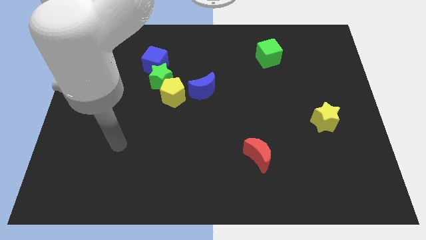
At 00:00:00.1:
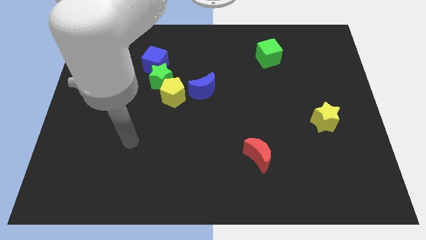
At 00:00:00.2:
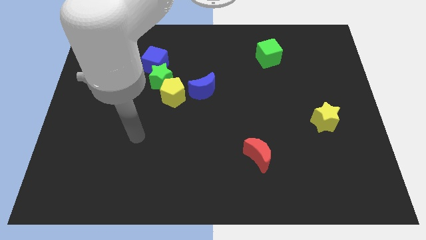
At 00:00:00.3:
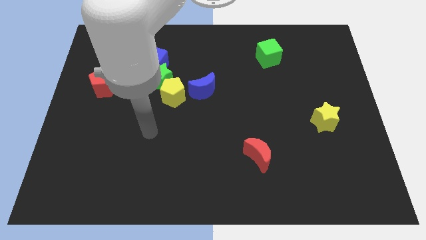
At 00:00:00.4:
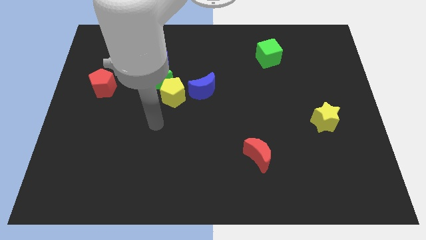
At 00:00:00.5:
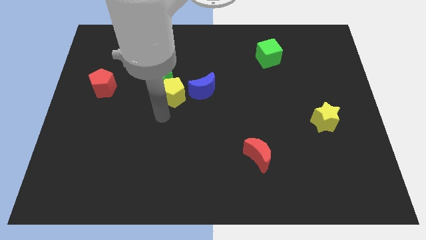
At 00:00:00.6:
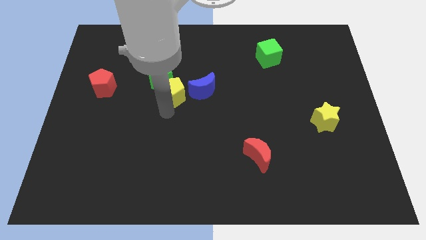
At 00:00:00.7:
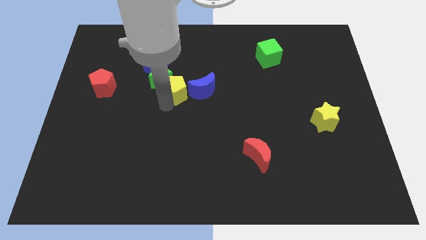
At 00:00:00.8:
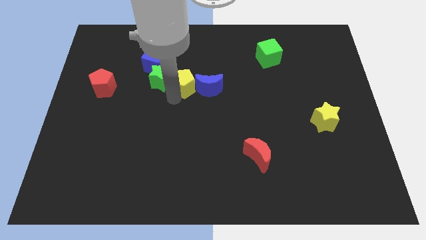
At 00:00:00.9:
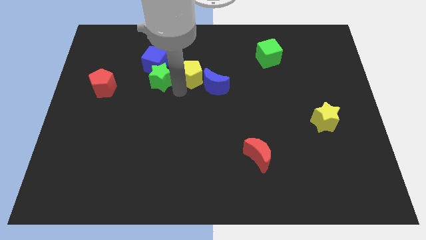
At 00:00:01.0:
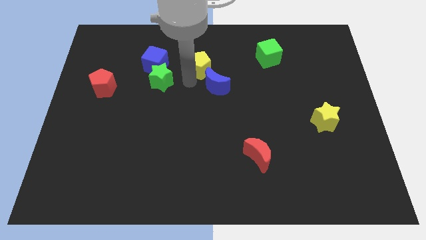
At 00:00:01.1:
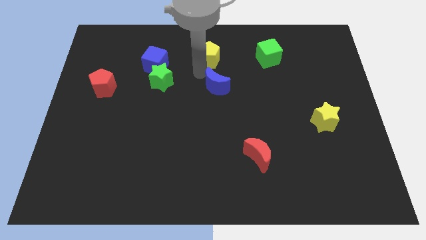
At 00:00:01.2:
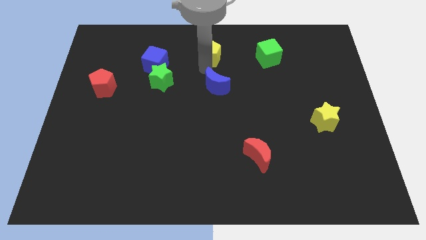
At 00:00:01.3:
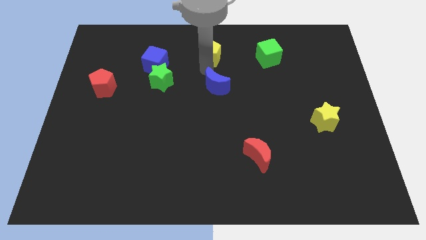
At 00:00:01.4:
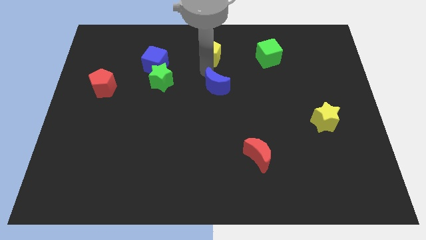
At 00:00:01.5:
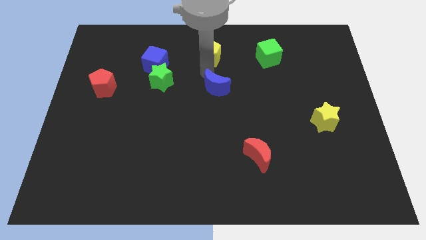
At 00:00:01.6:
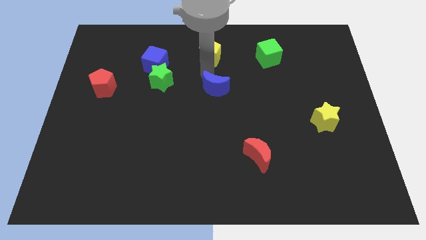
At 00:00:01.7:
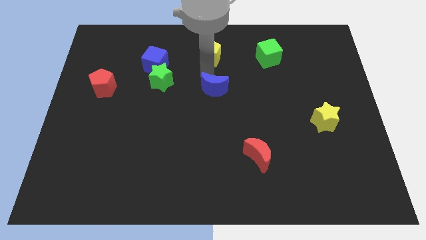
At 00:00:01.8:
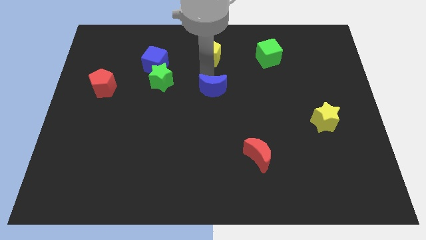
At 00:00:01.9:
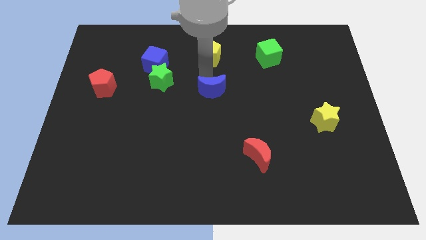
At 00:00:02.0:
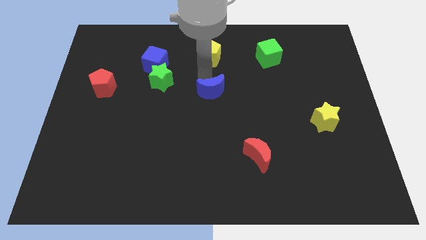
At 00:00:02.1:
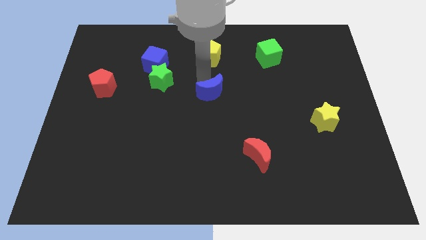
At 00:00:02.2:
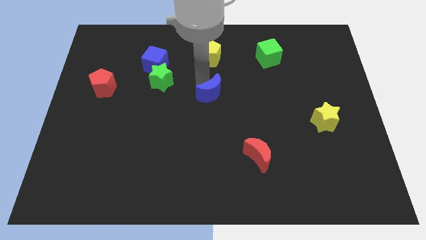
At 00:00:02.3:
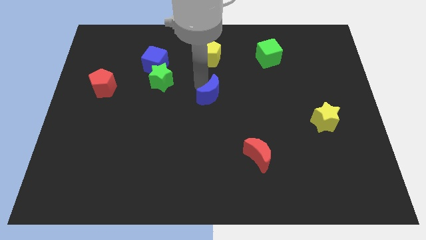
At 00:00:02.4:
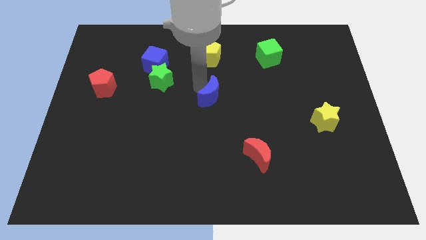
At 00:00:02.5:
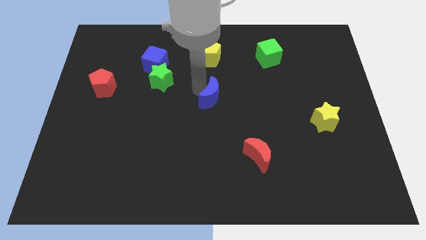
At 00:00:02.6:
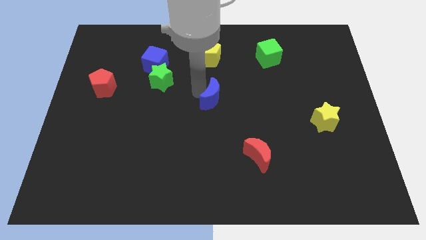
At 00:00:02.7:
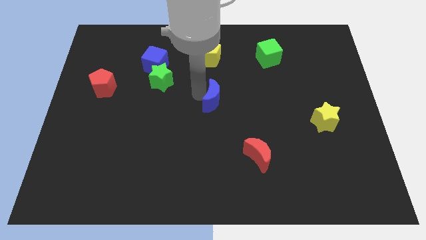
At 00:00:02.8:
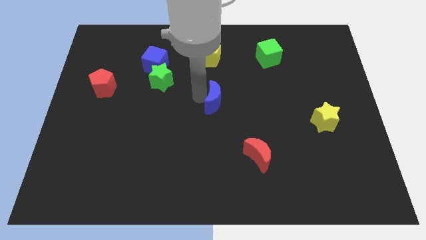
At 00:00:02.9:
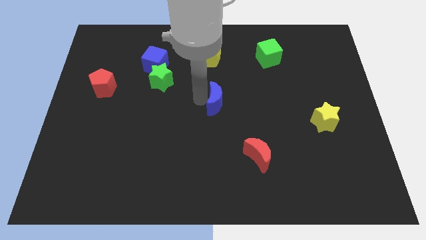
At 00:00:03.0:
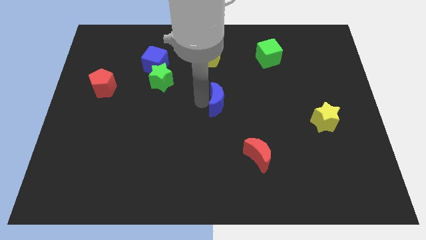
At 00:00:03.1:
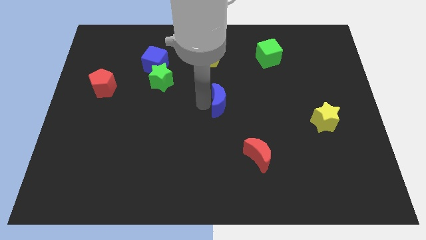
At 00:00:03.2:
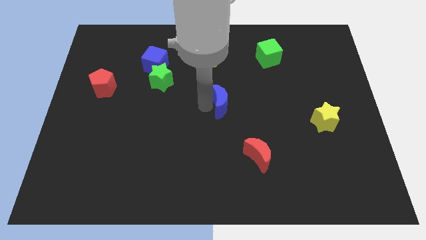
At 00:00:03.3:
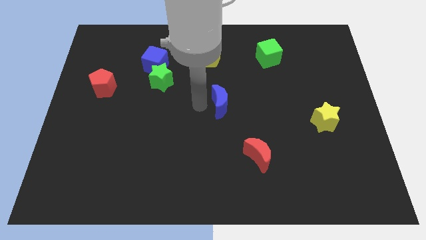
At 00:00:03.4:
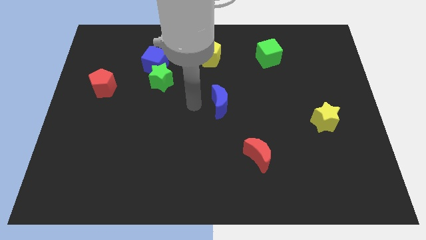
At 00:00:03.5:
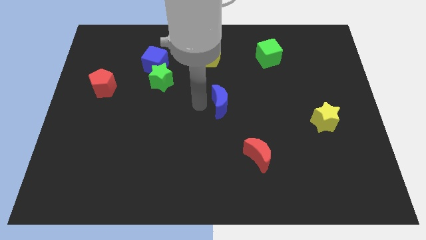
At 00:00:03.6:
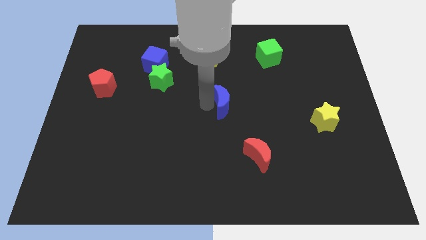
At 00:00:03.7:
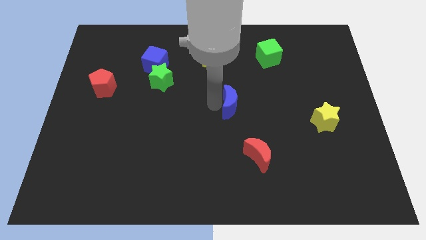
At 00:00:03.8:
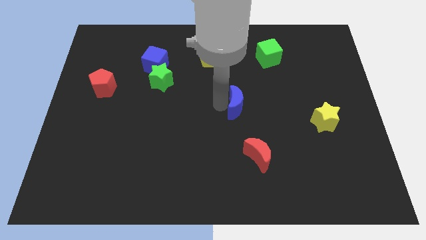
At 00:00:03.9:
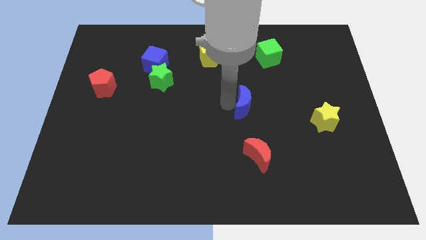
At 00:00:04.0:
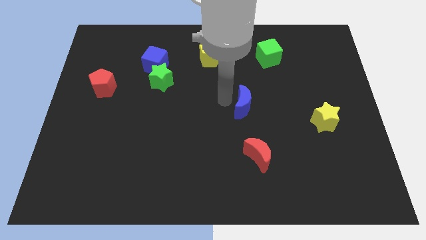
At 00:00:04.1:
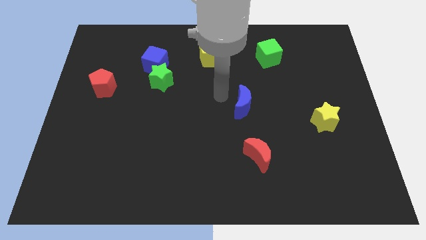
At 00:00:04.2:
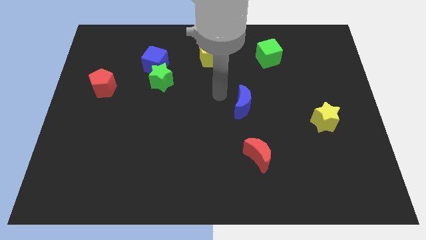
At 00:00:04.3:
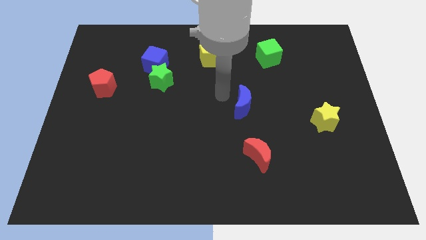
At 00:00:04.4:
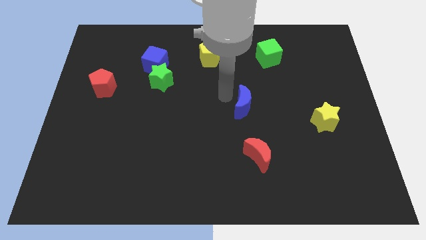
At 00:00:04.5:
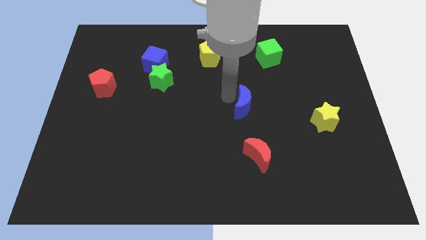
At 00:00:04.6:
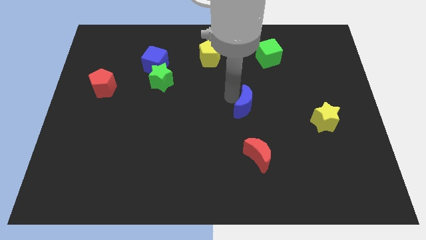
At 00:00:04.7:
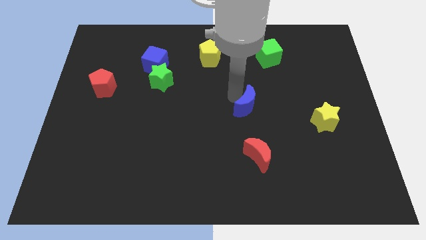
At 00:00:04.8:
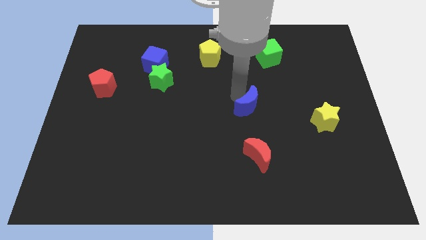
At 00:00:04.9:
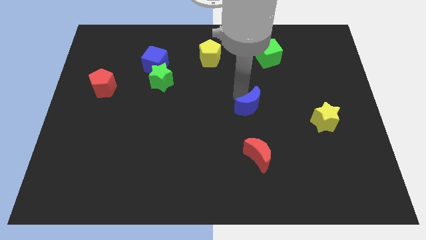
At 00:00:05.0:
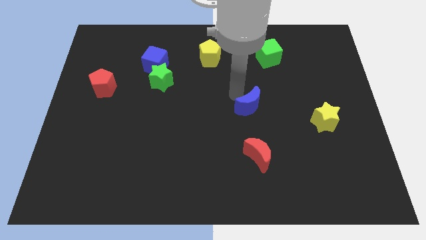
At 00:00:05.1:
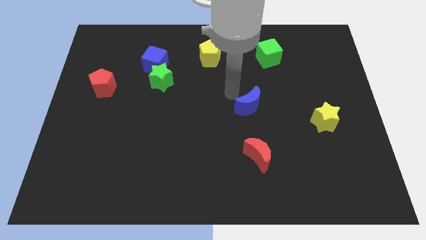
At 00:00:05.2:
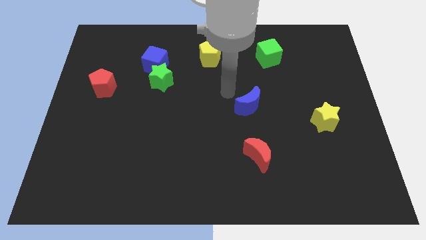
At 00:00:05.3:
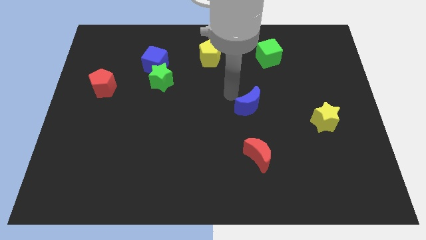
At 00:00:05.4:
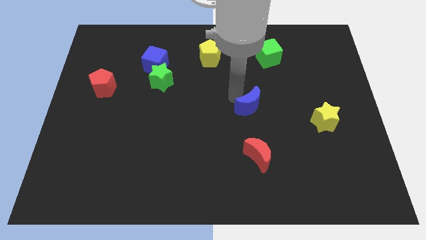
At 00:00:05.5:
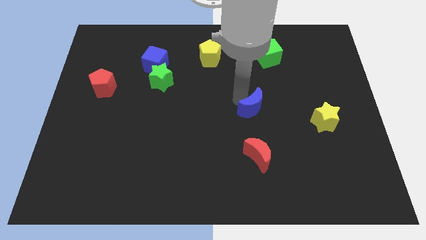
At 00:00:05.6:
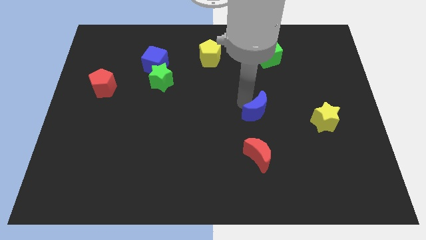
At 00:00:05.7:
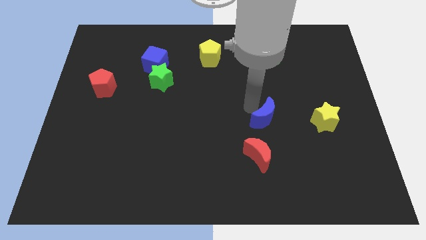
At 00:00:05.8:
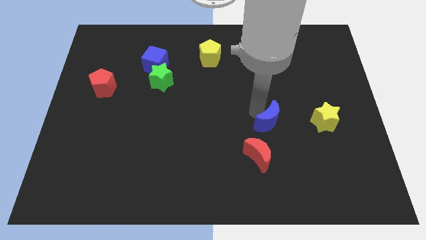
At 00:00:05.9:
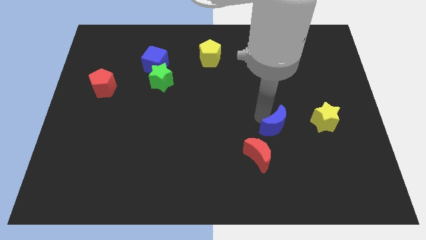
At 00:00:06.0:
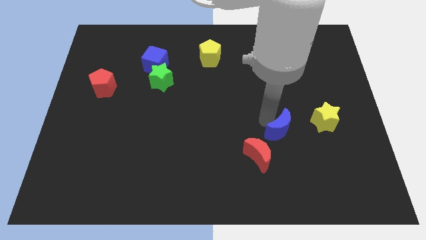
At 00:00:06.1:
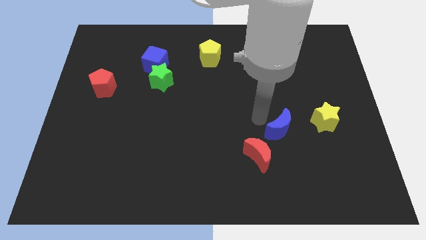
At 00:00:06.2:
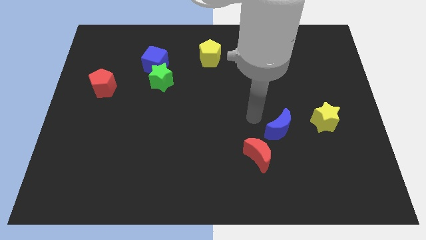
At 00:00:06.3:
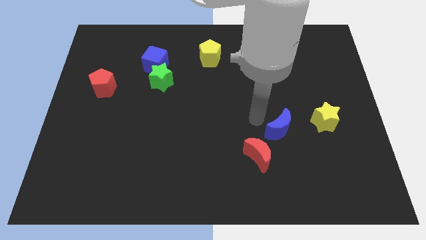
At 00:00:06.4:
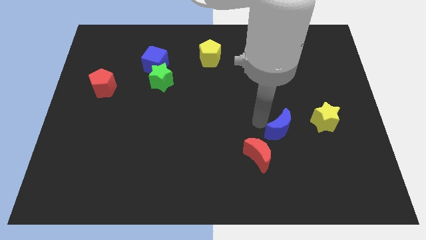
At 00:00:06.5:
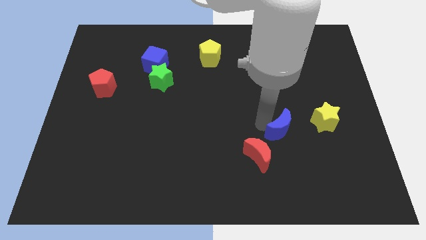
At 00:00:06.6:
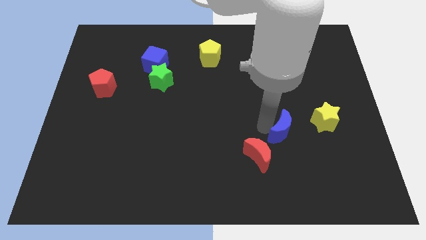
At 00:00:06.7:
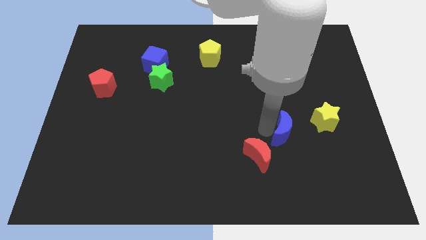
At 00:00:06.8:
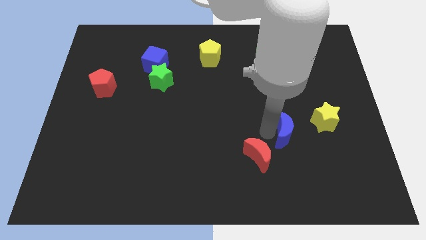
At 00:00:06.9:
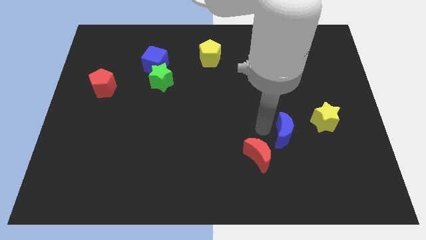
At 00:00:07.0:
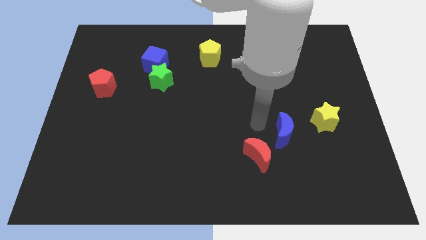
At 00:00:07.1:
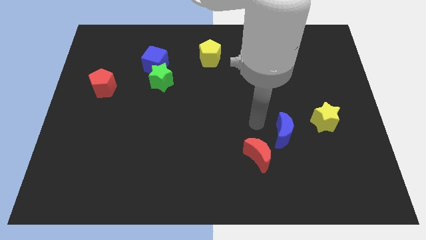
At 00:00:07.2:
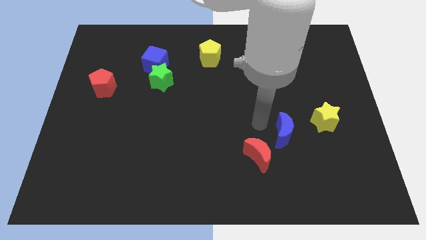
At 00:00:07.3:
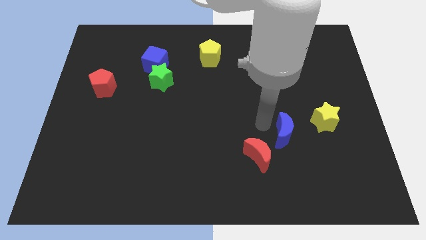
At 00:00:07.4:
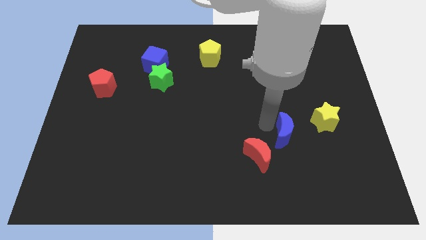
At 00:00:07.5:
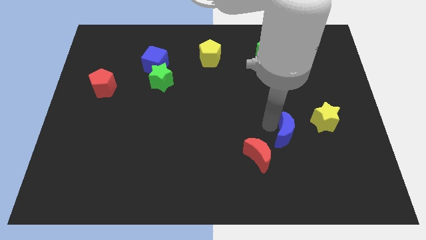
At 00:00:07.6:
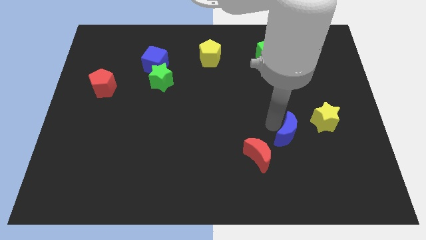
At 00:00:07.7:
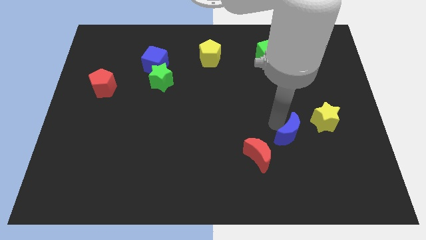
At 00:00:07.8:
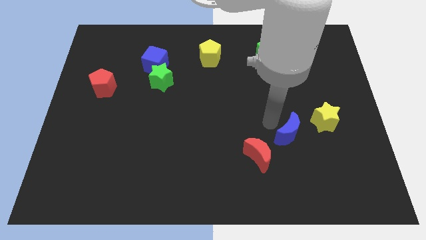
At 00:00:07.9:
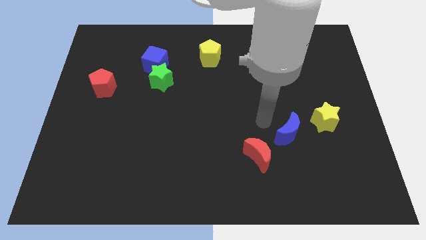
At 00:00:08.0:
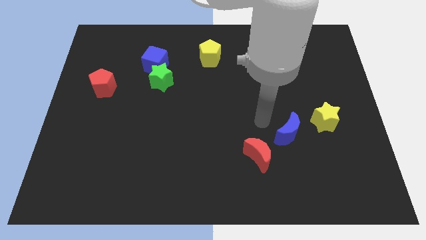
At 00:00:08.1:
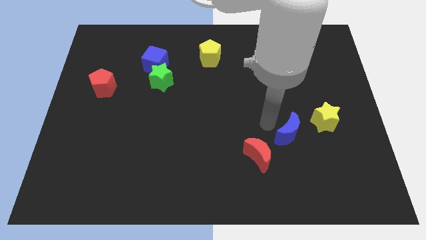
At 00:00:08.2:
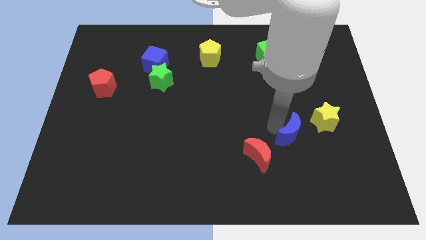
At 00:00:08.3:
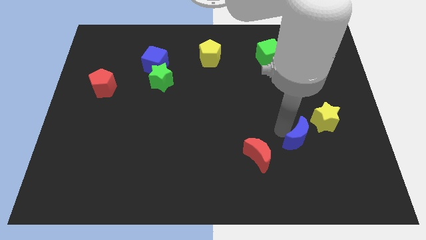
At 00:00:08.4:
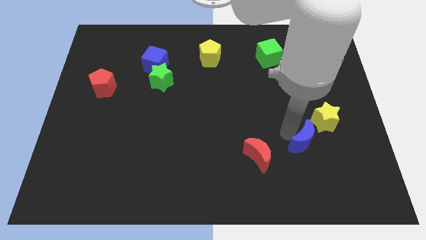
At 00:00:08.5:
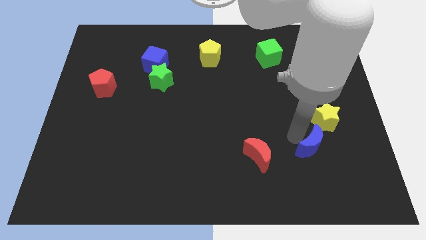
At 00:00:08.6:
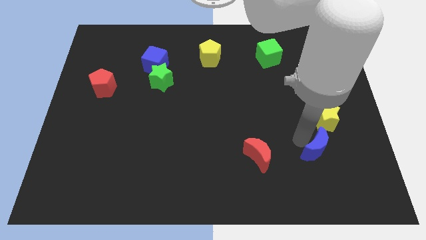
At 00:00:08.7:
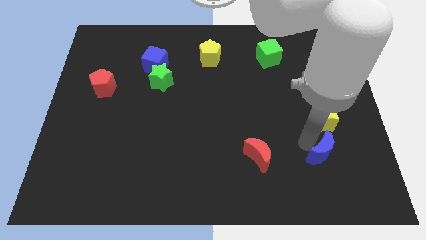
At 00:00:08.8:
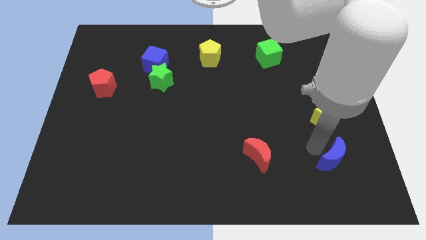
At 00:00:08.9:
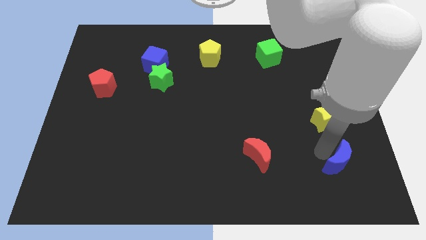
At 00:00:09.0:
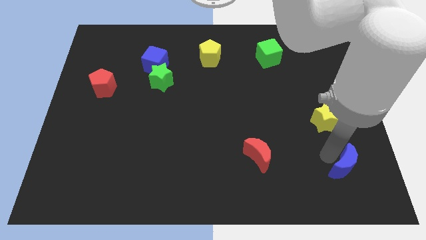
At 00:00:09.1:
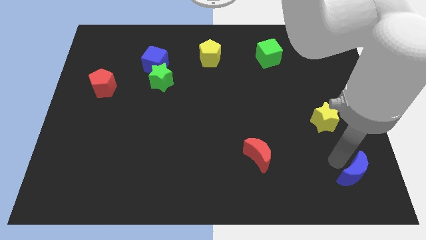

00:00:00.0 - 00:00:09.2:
slide the blue moon to the bottom right of the board
